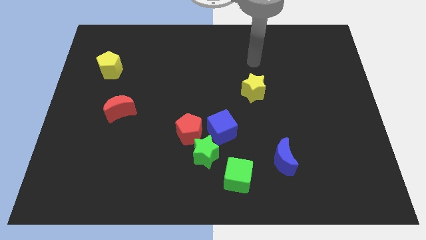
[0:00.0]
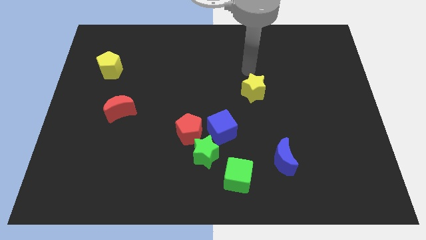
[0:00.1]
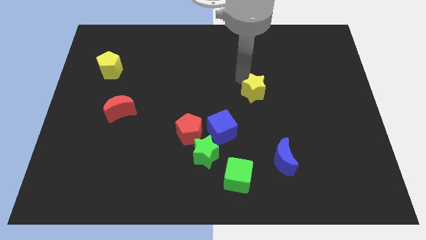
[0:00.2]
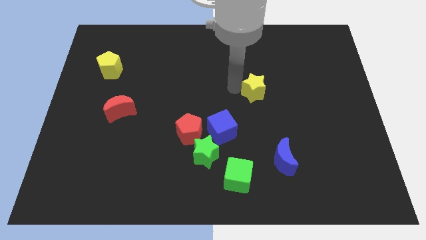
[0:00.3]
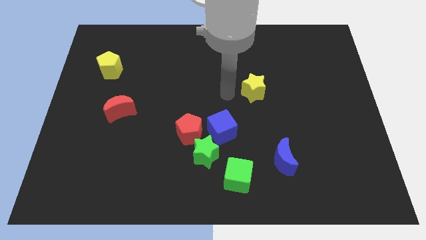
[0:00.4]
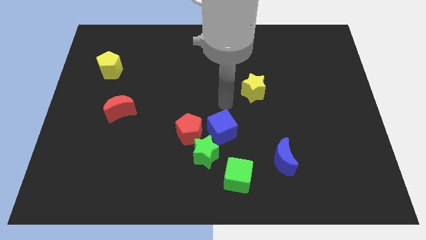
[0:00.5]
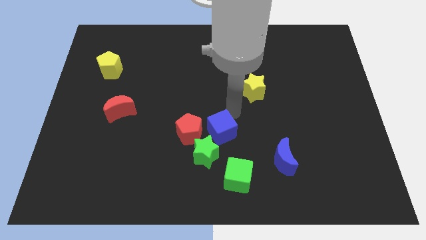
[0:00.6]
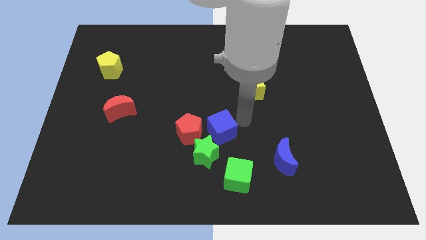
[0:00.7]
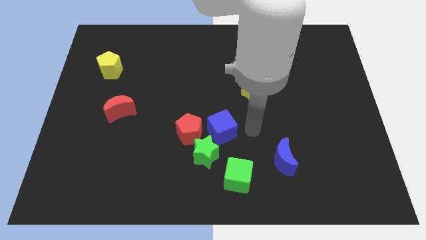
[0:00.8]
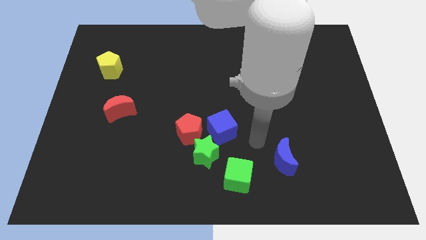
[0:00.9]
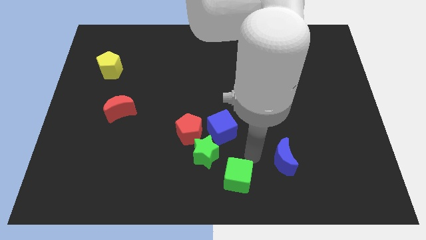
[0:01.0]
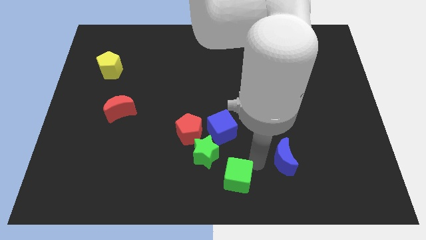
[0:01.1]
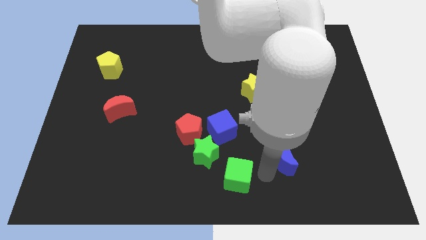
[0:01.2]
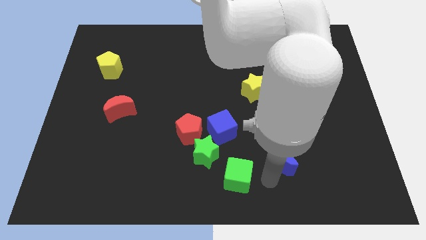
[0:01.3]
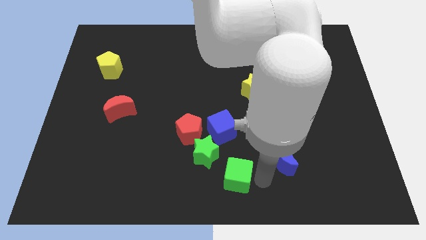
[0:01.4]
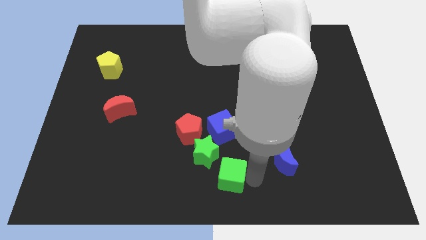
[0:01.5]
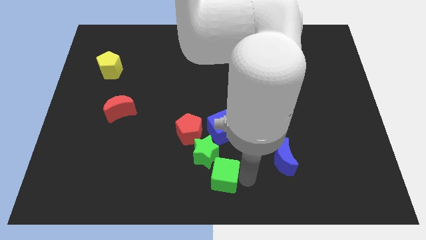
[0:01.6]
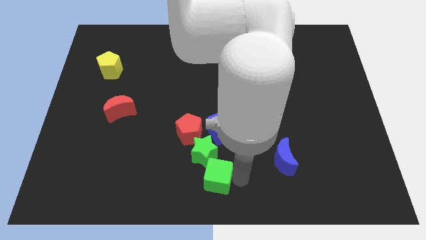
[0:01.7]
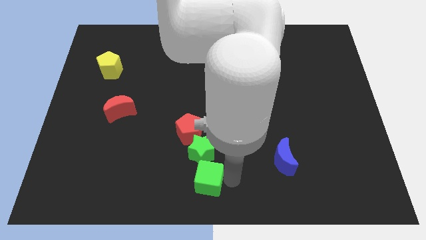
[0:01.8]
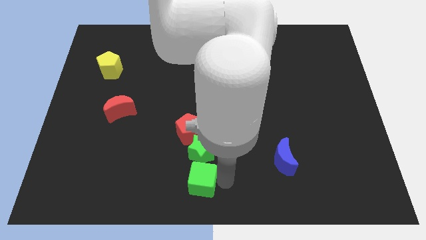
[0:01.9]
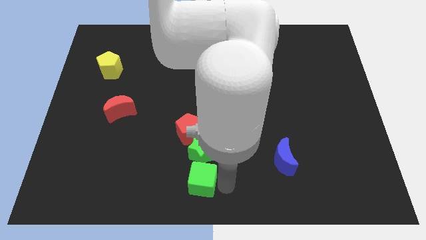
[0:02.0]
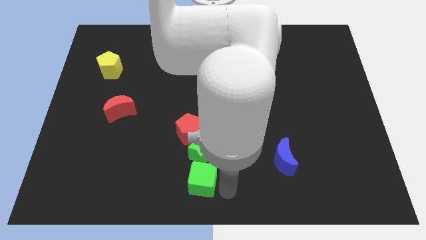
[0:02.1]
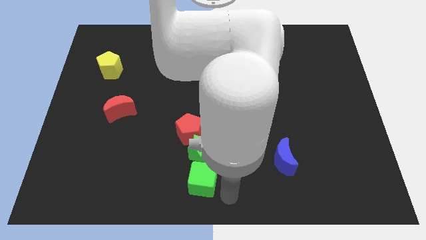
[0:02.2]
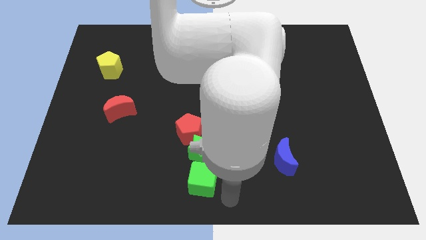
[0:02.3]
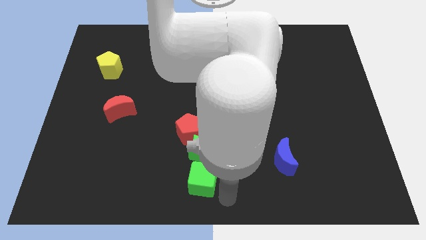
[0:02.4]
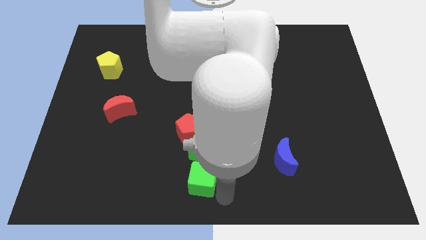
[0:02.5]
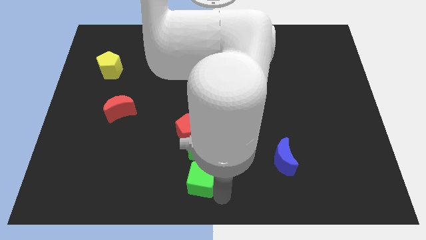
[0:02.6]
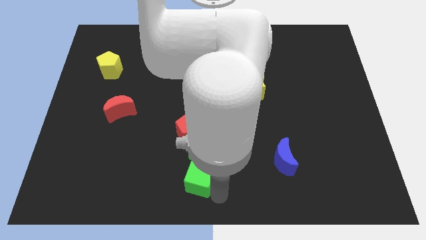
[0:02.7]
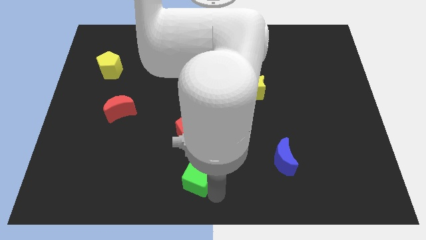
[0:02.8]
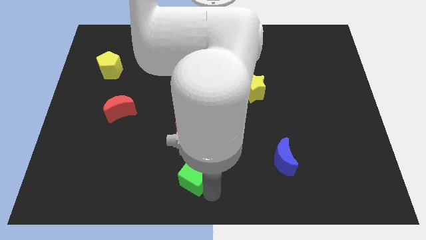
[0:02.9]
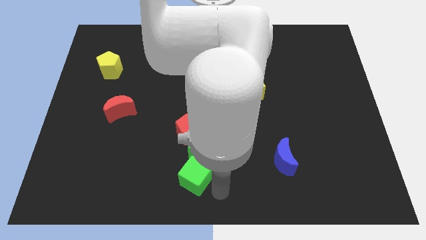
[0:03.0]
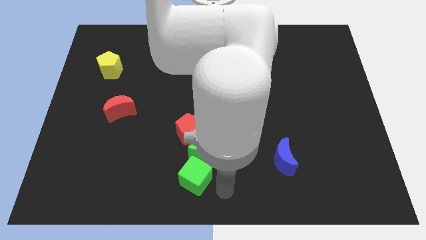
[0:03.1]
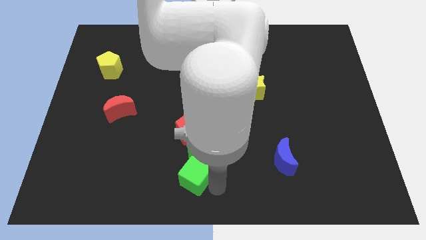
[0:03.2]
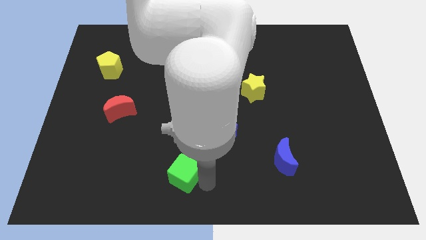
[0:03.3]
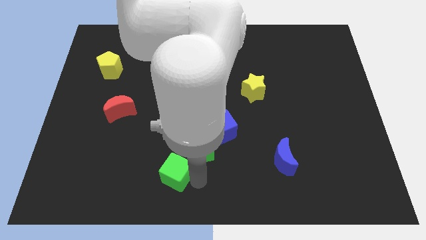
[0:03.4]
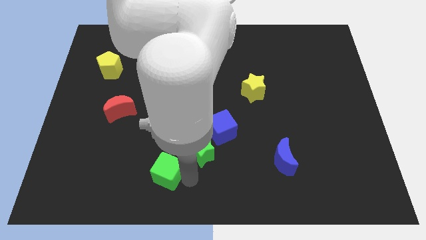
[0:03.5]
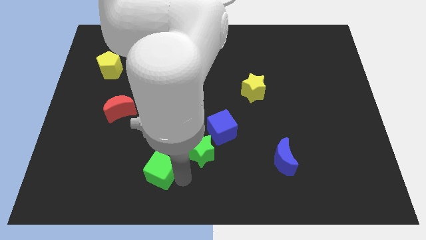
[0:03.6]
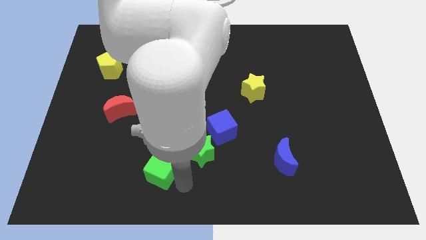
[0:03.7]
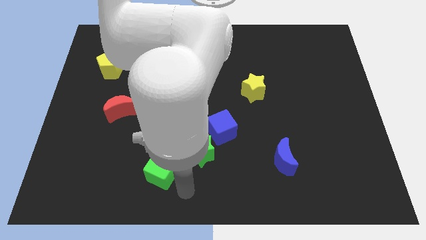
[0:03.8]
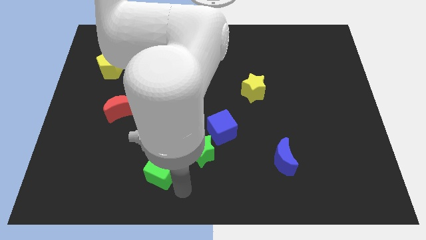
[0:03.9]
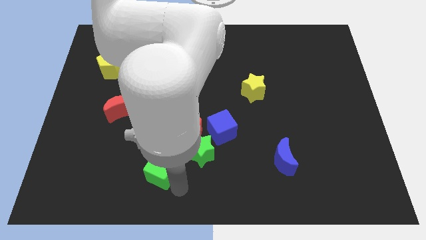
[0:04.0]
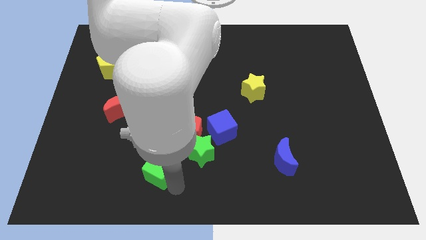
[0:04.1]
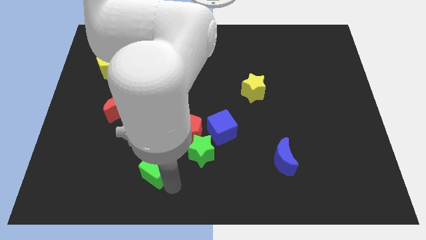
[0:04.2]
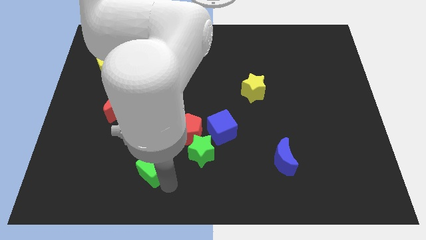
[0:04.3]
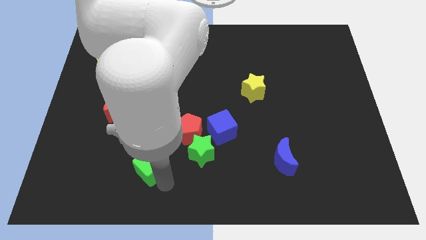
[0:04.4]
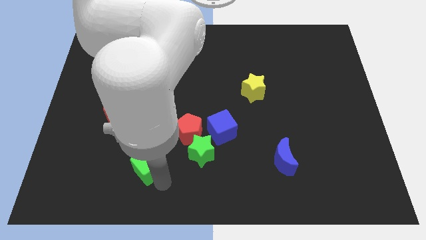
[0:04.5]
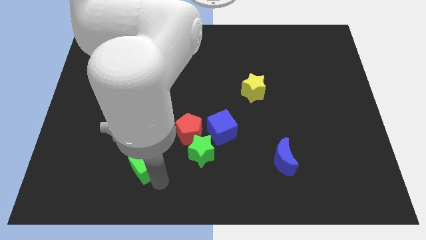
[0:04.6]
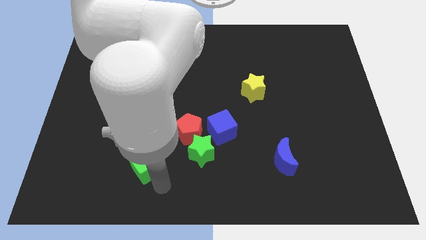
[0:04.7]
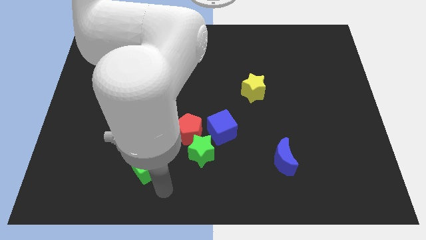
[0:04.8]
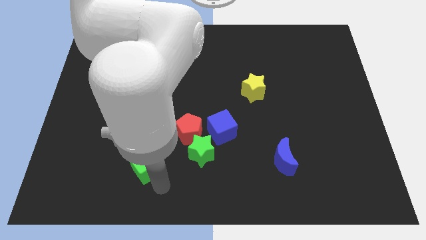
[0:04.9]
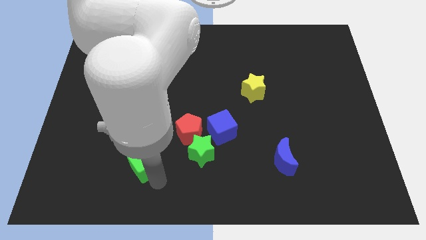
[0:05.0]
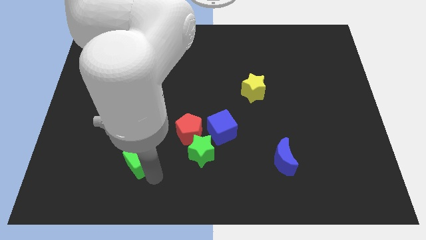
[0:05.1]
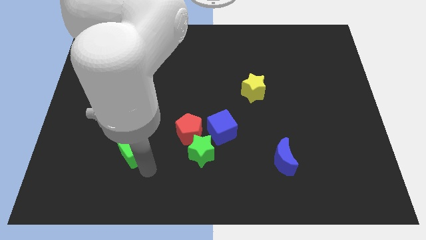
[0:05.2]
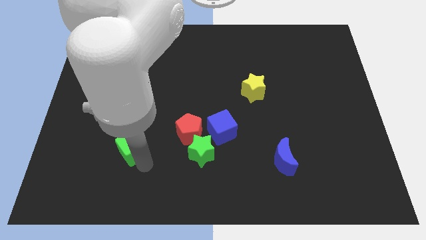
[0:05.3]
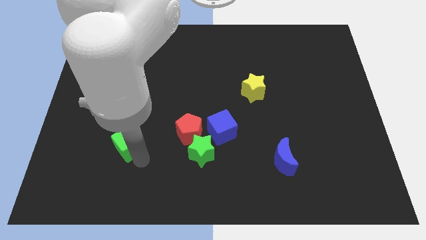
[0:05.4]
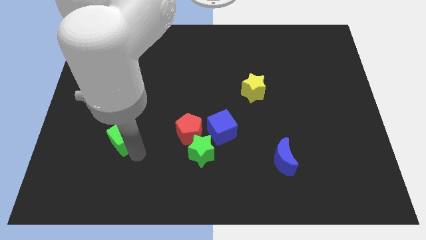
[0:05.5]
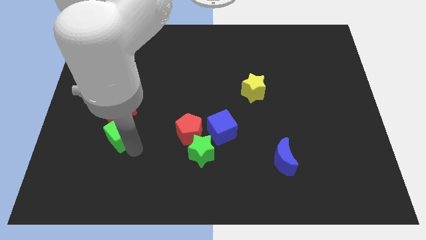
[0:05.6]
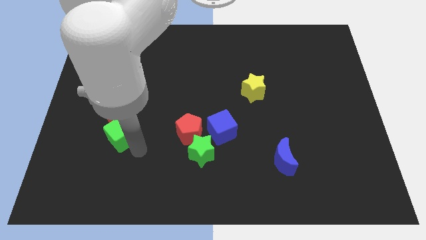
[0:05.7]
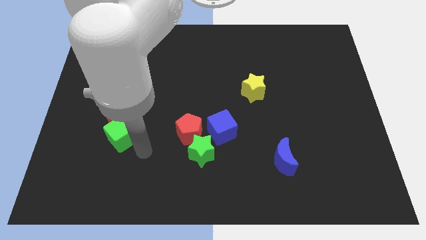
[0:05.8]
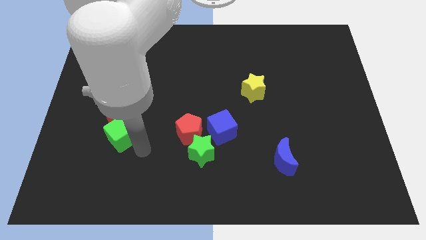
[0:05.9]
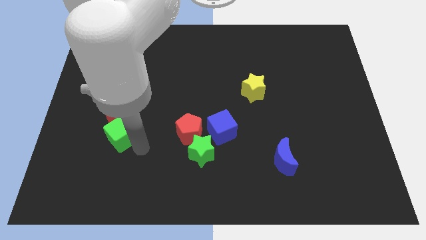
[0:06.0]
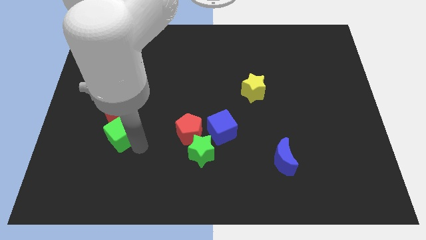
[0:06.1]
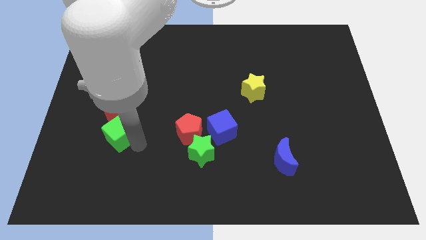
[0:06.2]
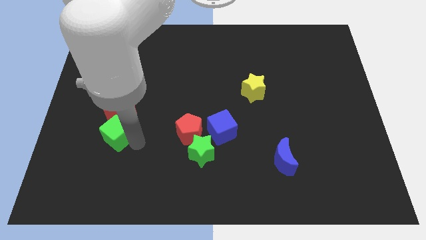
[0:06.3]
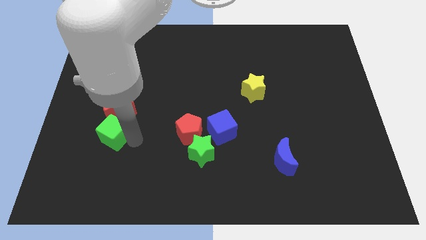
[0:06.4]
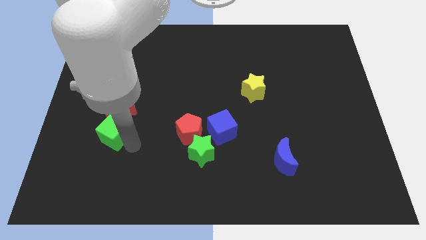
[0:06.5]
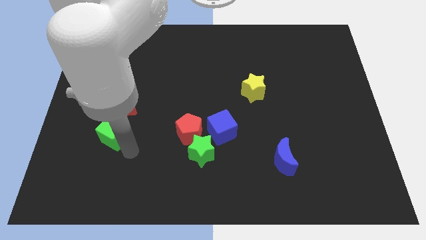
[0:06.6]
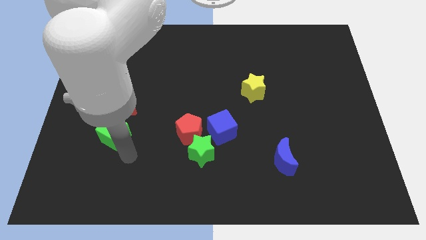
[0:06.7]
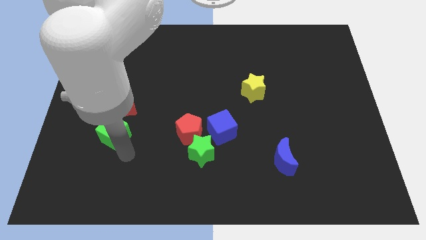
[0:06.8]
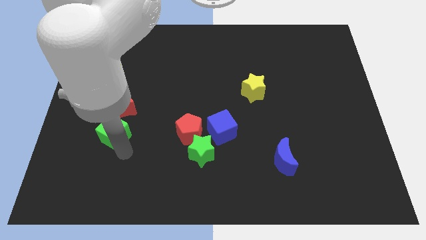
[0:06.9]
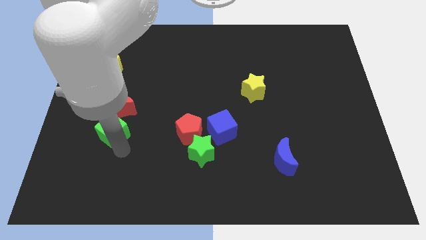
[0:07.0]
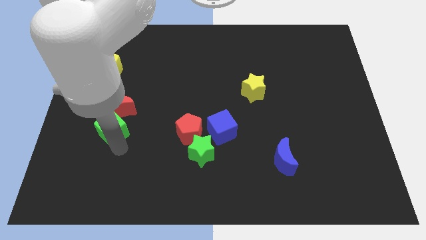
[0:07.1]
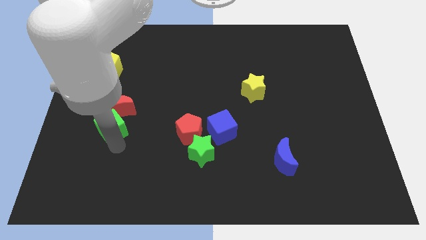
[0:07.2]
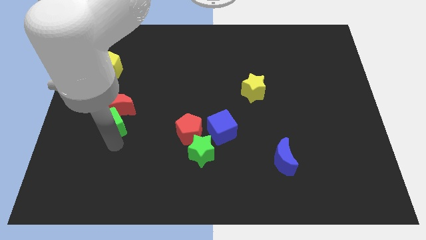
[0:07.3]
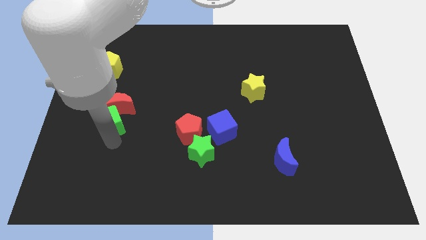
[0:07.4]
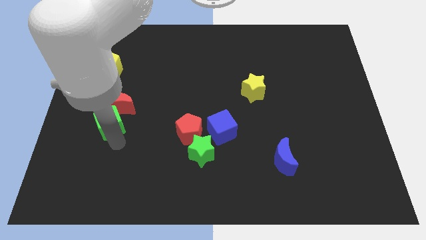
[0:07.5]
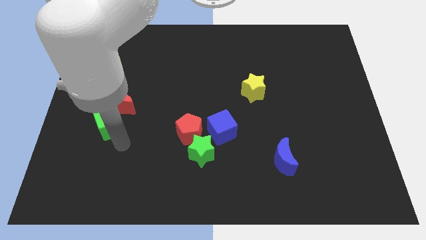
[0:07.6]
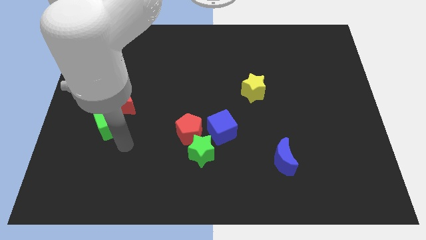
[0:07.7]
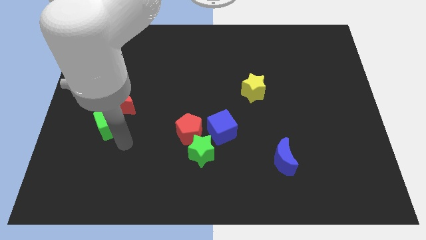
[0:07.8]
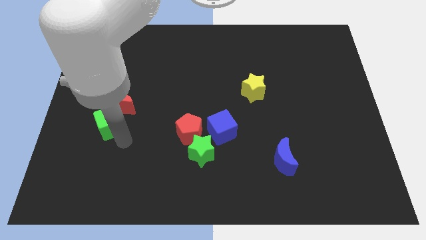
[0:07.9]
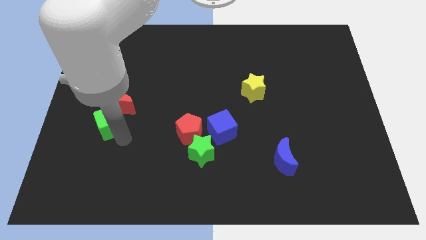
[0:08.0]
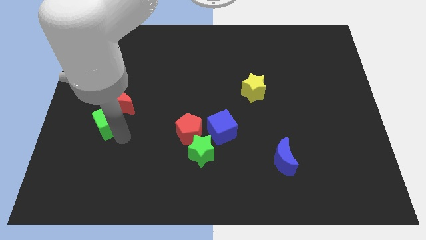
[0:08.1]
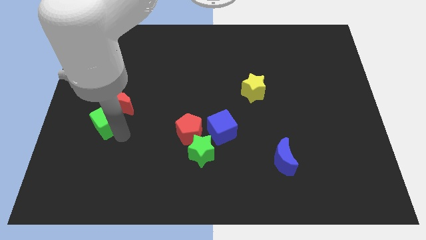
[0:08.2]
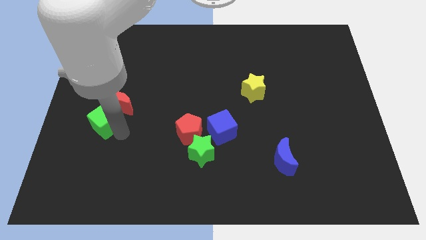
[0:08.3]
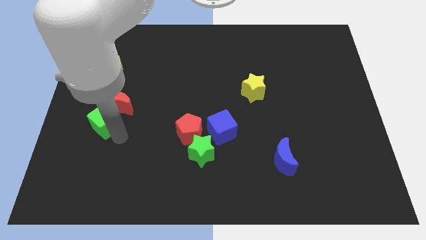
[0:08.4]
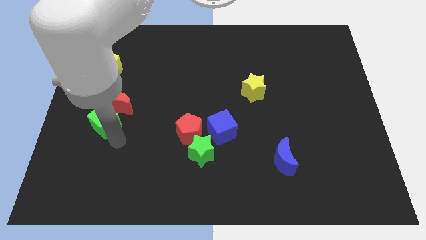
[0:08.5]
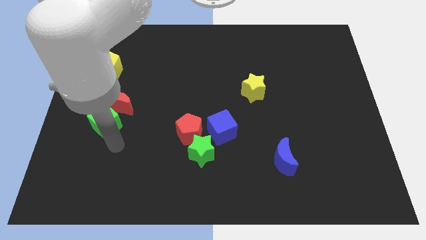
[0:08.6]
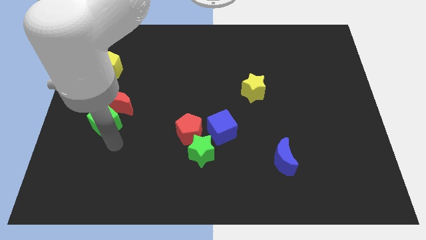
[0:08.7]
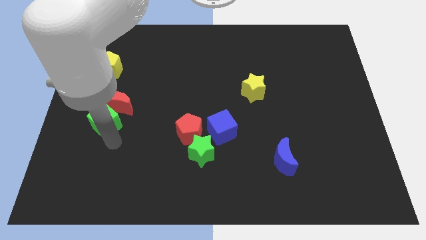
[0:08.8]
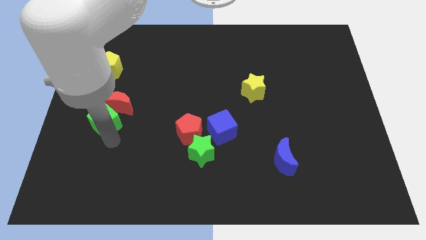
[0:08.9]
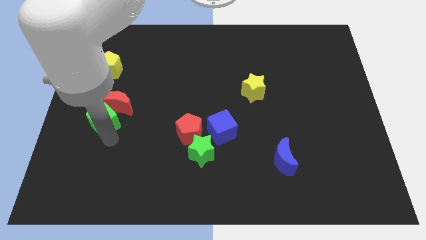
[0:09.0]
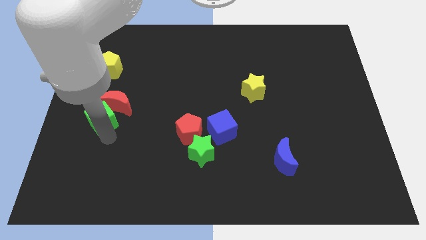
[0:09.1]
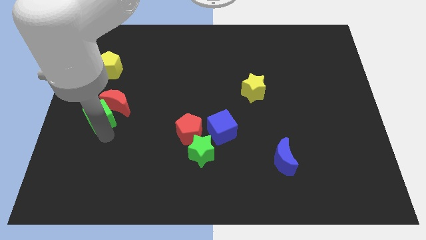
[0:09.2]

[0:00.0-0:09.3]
put the green cube below the yellow pentagon
